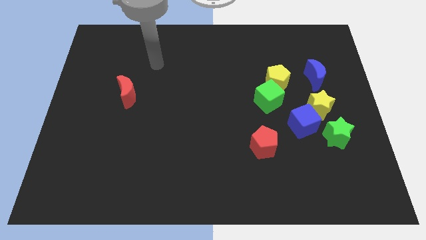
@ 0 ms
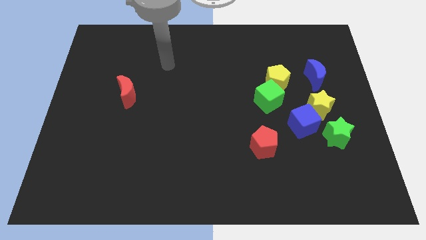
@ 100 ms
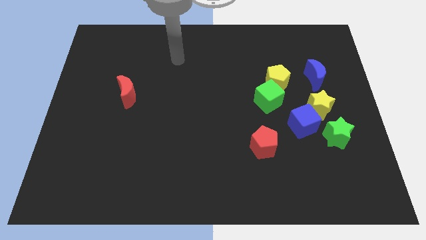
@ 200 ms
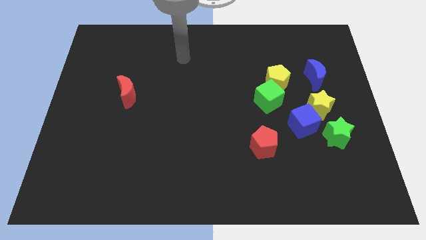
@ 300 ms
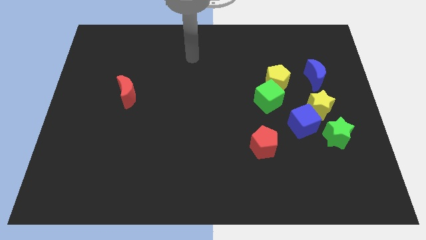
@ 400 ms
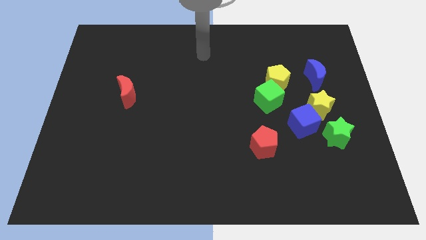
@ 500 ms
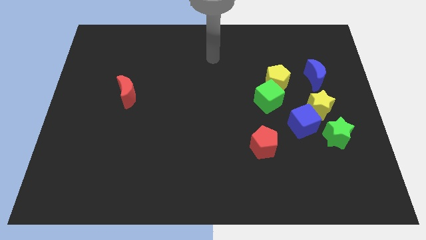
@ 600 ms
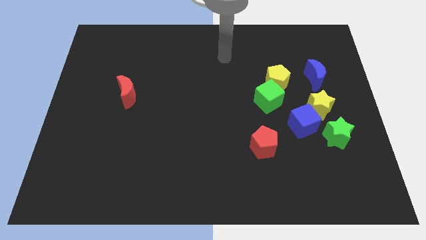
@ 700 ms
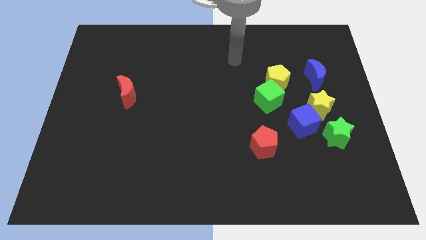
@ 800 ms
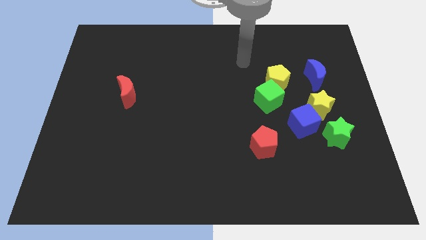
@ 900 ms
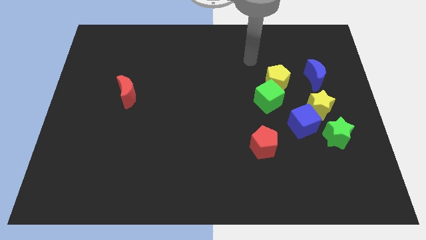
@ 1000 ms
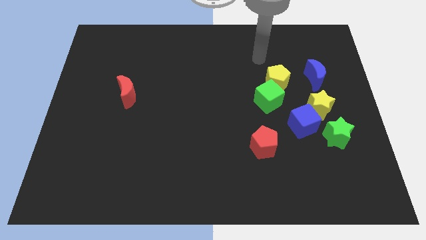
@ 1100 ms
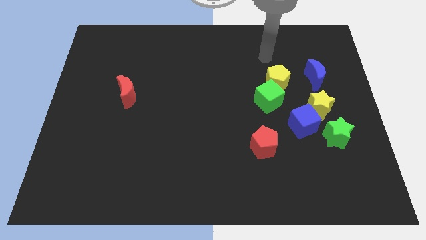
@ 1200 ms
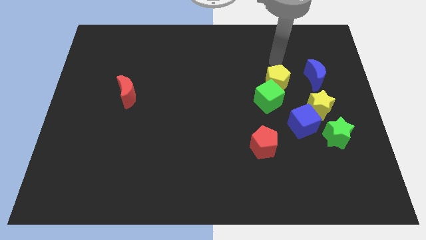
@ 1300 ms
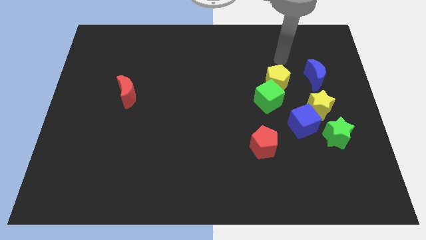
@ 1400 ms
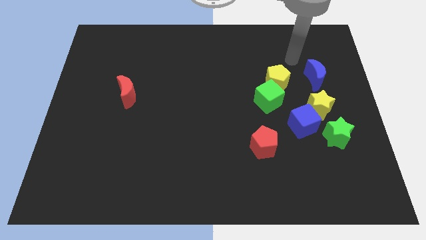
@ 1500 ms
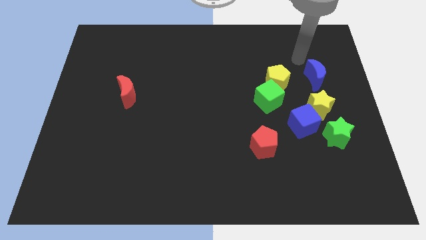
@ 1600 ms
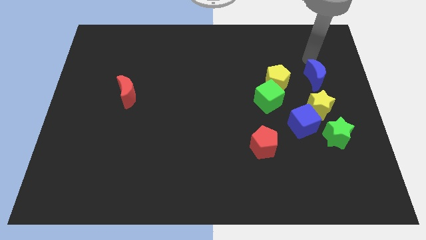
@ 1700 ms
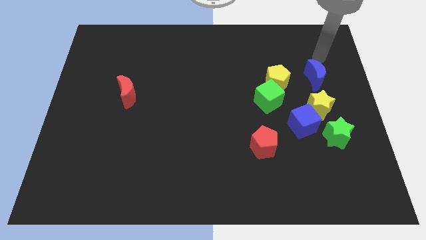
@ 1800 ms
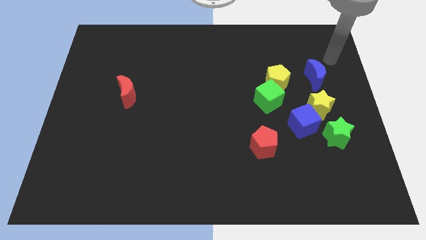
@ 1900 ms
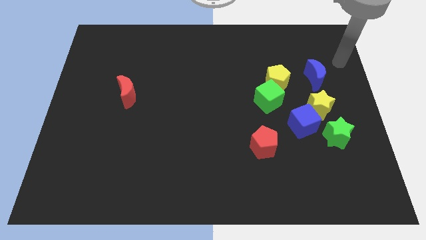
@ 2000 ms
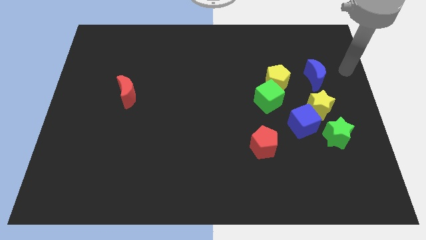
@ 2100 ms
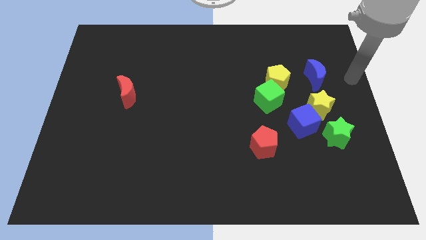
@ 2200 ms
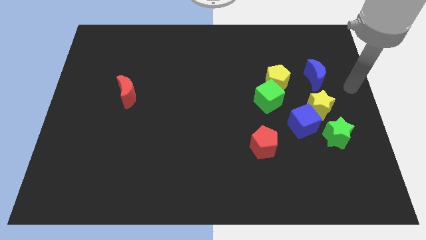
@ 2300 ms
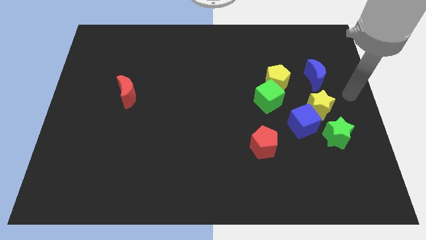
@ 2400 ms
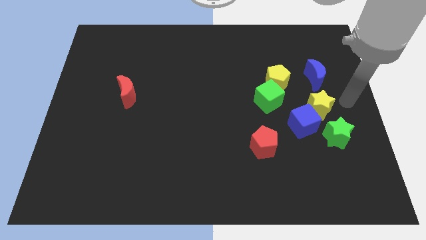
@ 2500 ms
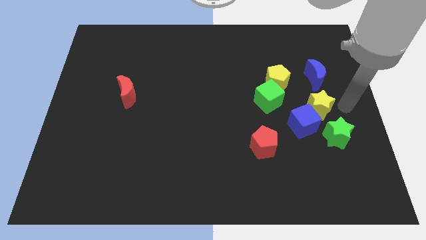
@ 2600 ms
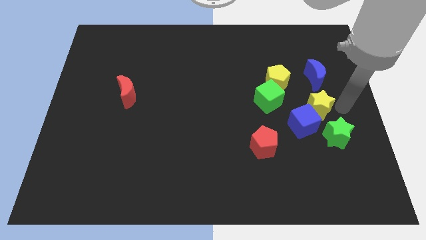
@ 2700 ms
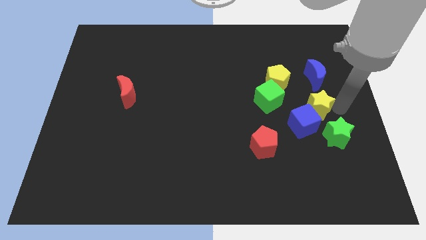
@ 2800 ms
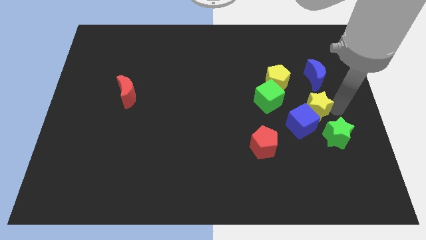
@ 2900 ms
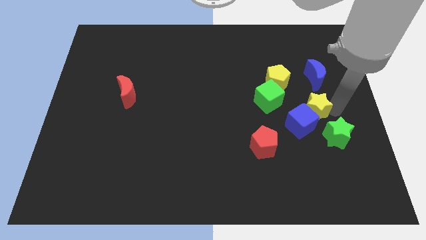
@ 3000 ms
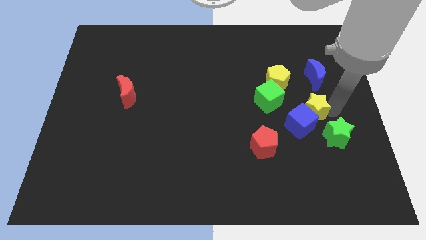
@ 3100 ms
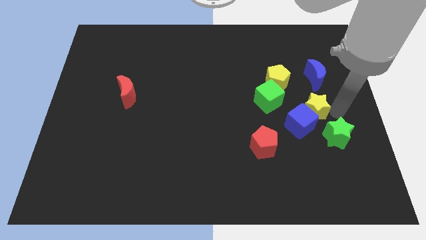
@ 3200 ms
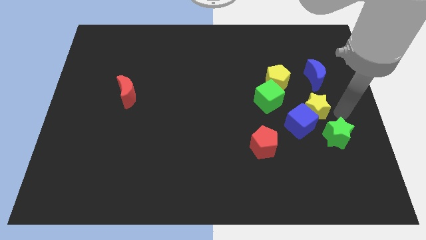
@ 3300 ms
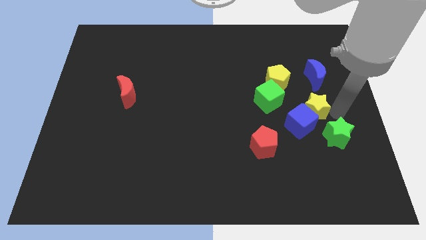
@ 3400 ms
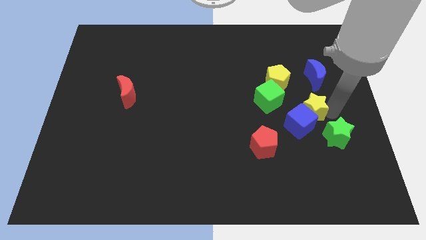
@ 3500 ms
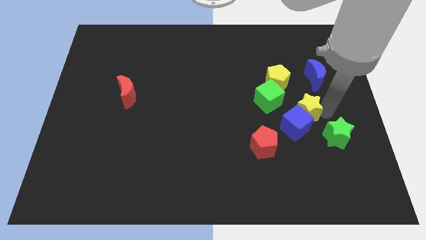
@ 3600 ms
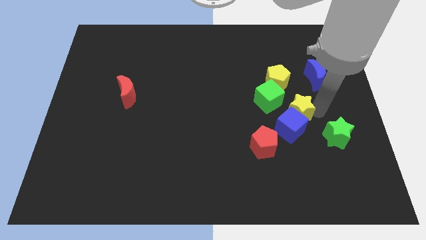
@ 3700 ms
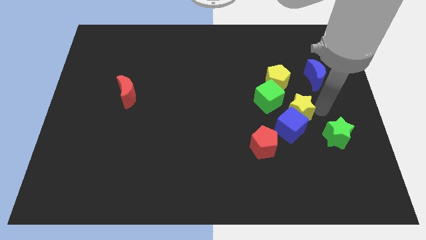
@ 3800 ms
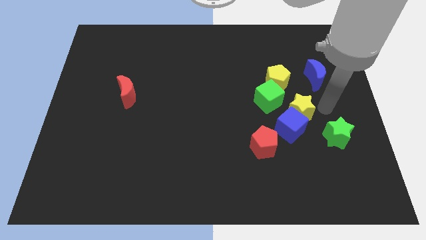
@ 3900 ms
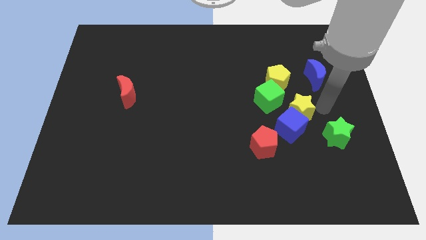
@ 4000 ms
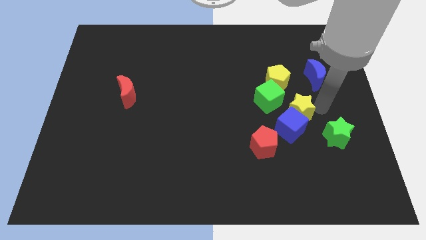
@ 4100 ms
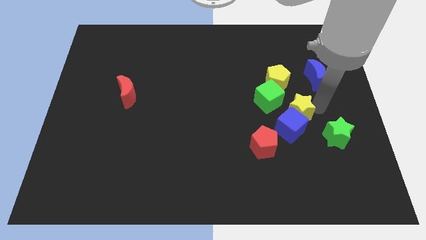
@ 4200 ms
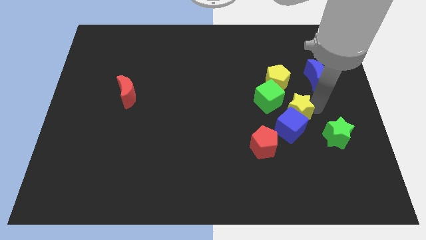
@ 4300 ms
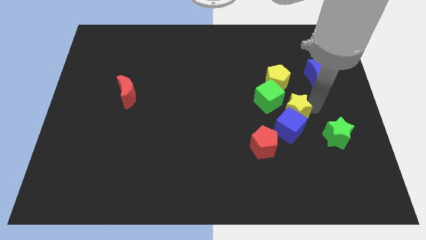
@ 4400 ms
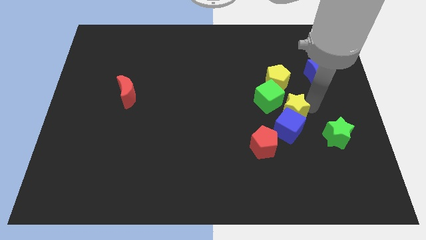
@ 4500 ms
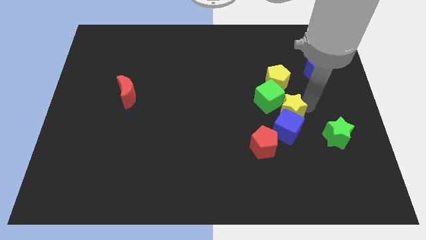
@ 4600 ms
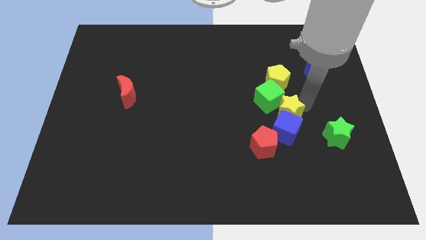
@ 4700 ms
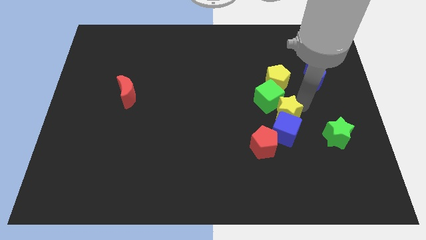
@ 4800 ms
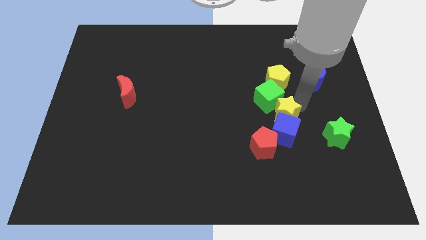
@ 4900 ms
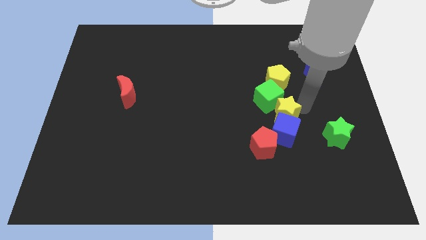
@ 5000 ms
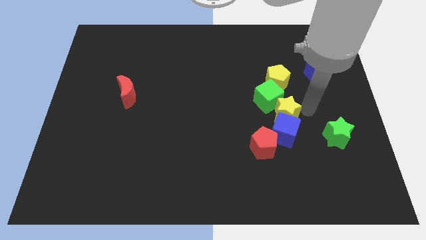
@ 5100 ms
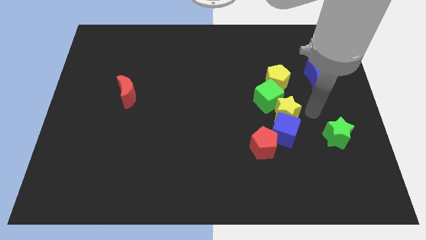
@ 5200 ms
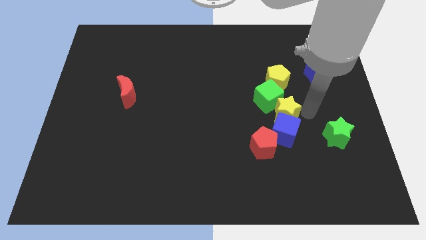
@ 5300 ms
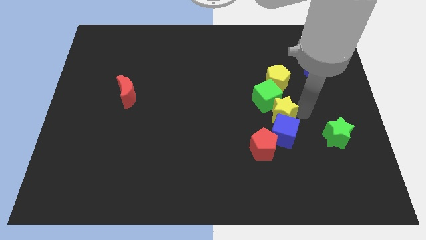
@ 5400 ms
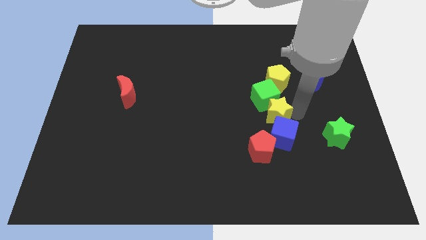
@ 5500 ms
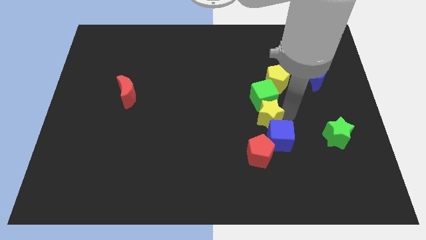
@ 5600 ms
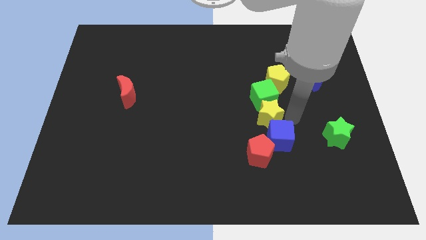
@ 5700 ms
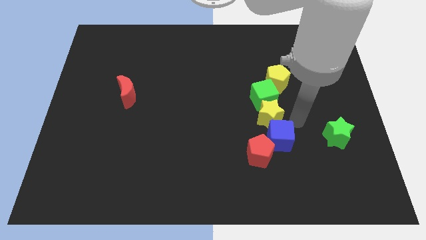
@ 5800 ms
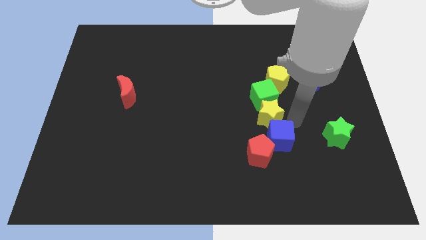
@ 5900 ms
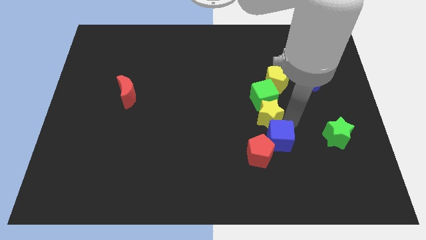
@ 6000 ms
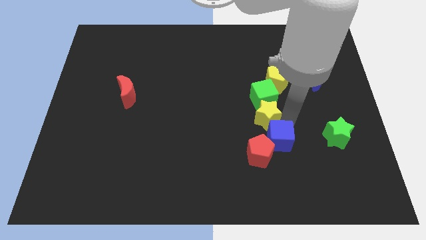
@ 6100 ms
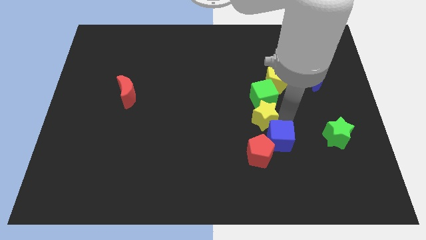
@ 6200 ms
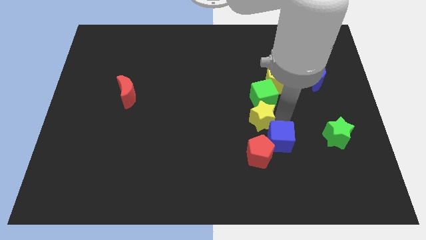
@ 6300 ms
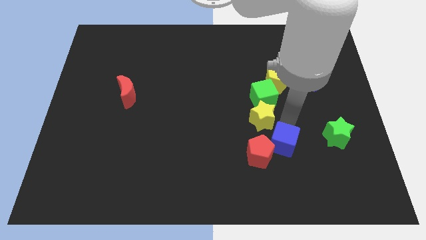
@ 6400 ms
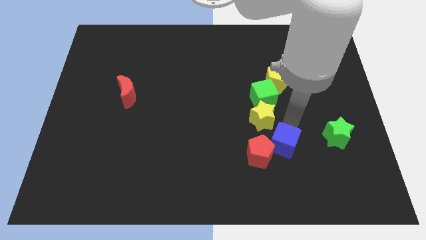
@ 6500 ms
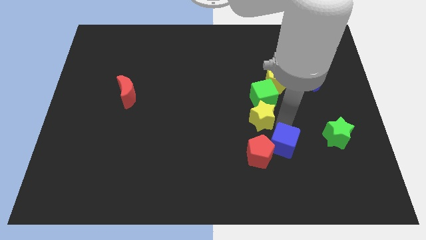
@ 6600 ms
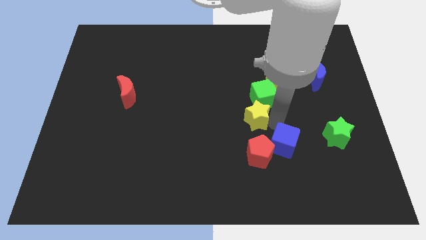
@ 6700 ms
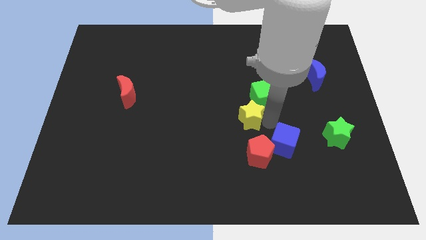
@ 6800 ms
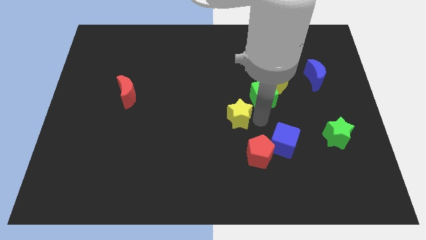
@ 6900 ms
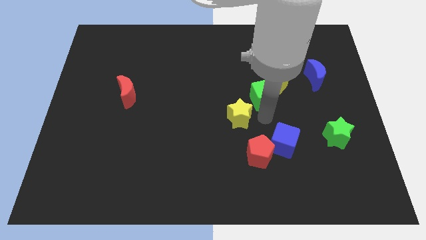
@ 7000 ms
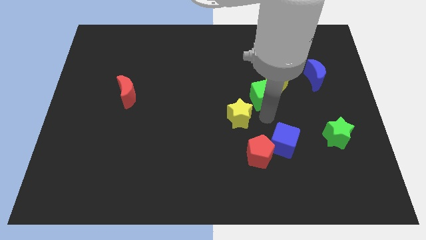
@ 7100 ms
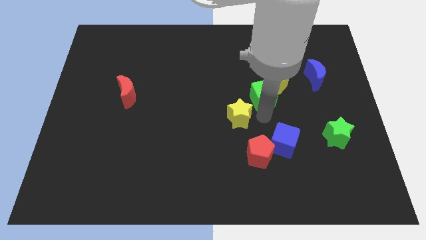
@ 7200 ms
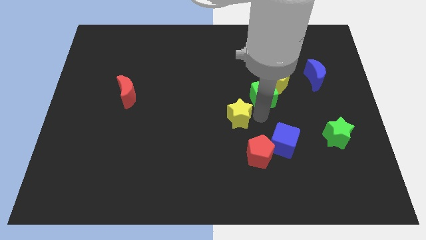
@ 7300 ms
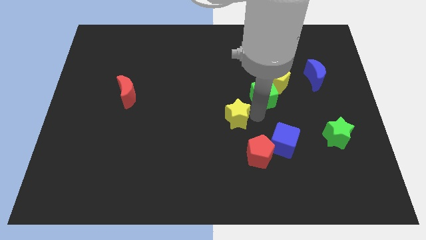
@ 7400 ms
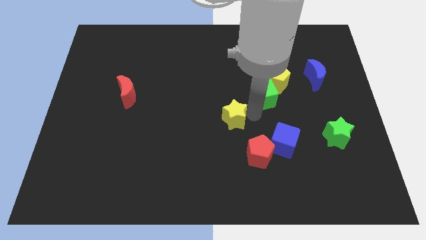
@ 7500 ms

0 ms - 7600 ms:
slide the yellow star left

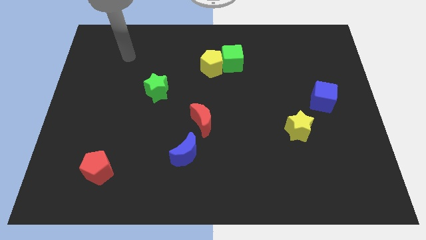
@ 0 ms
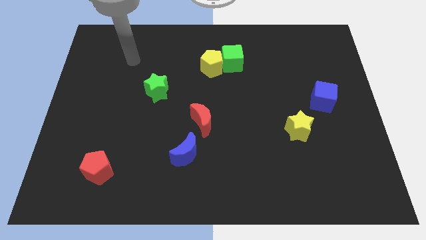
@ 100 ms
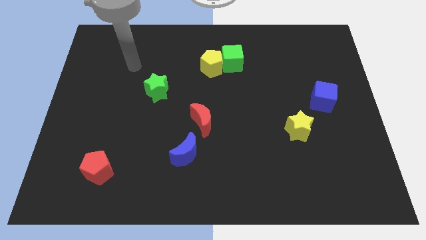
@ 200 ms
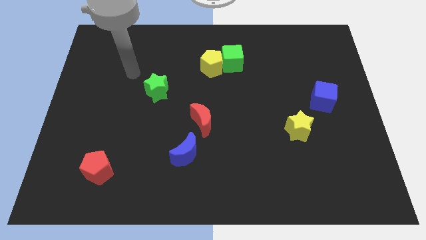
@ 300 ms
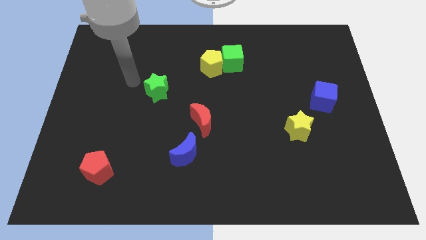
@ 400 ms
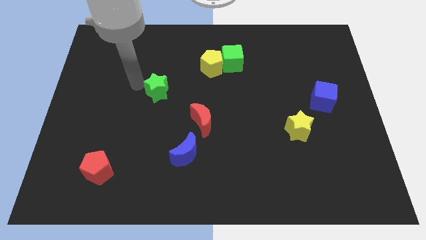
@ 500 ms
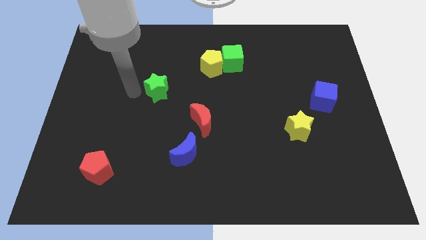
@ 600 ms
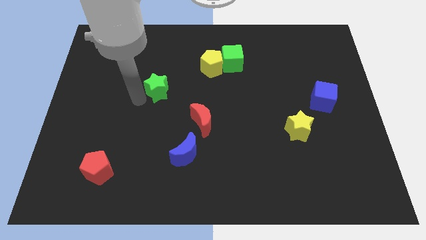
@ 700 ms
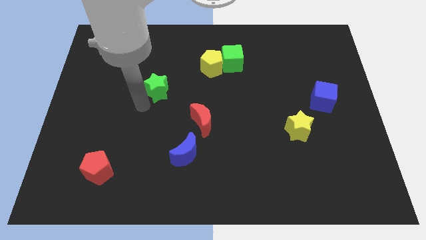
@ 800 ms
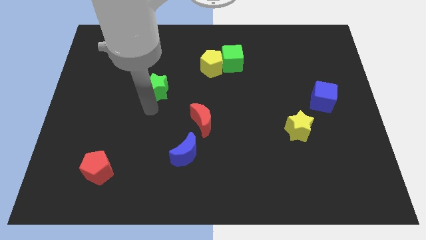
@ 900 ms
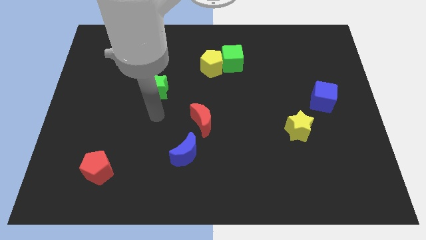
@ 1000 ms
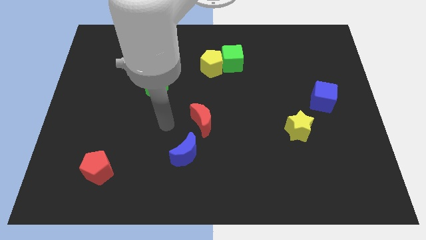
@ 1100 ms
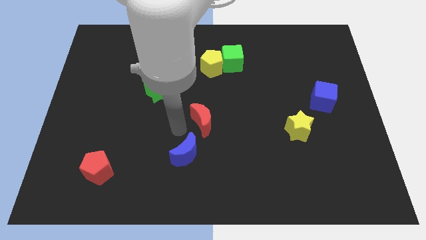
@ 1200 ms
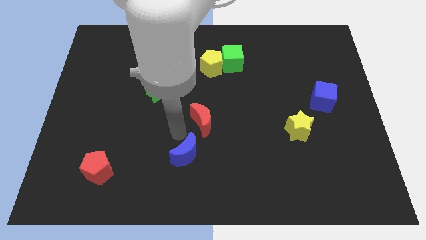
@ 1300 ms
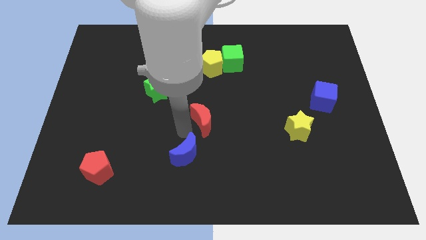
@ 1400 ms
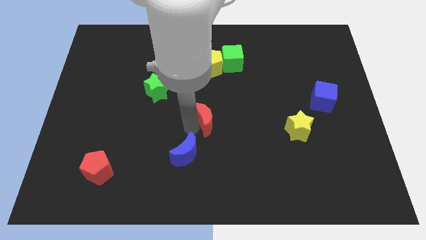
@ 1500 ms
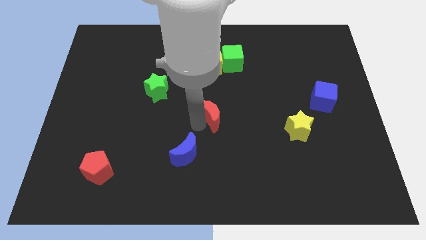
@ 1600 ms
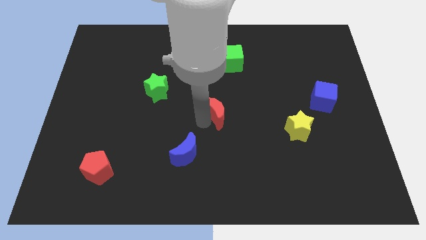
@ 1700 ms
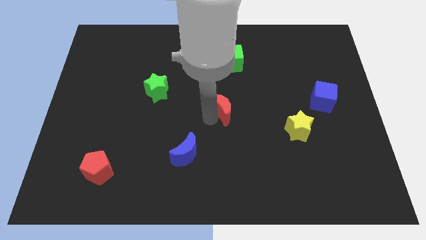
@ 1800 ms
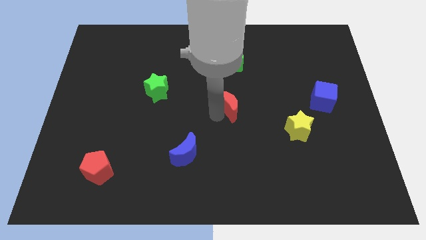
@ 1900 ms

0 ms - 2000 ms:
move the red moon diagonally upwards and right slightly
